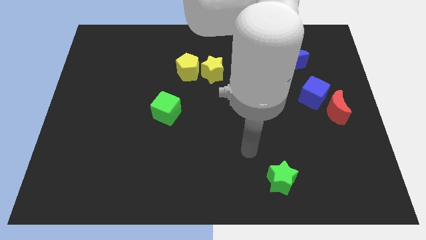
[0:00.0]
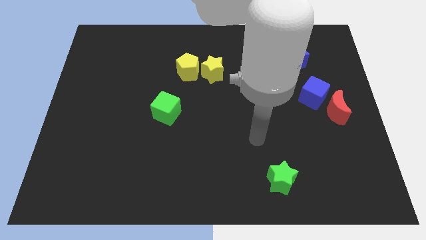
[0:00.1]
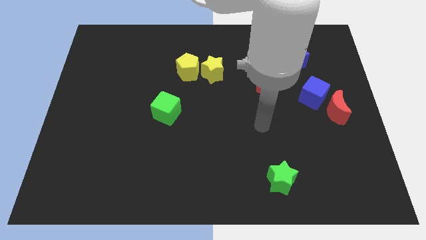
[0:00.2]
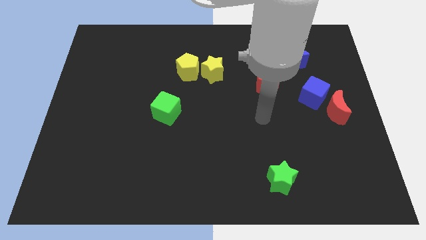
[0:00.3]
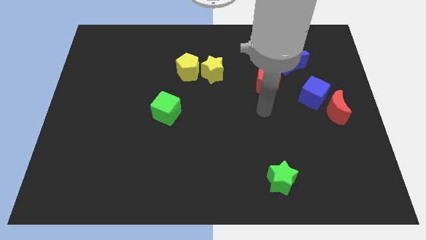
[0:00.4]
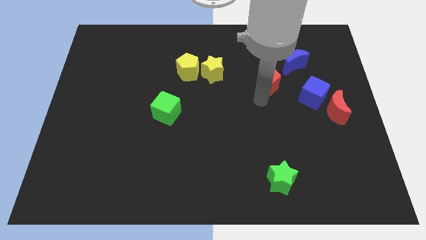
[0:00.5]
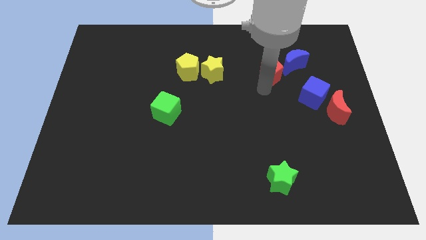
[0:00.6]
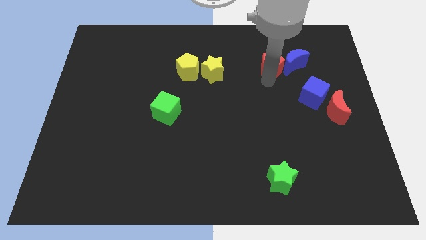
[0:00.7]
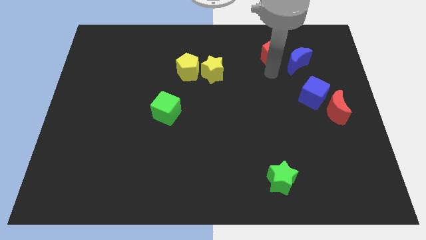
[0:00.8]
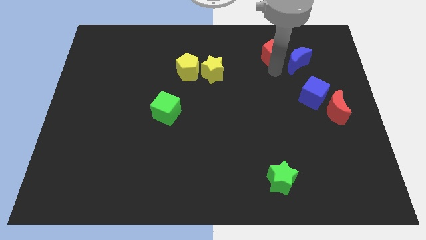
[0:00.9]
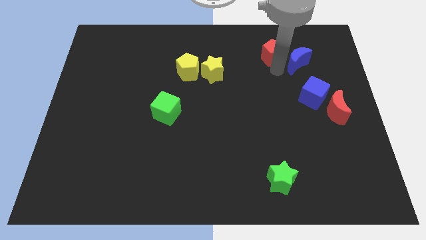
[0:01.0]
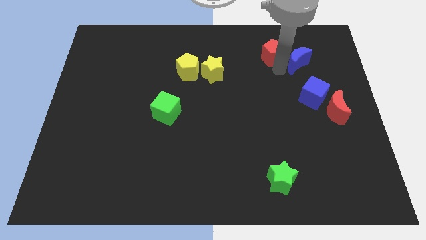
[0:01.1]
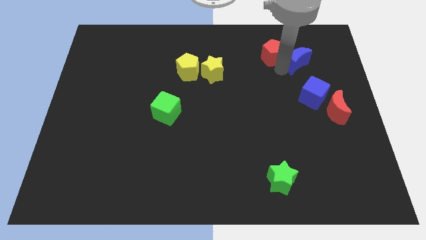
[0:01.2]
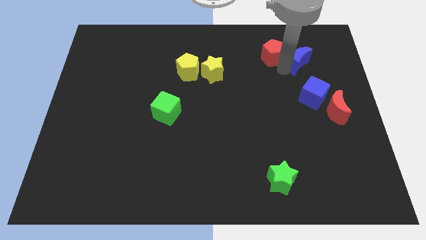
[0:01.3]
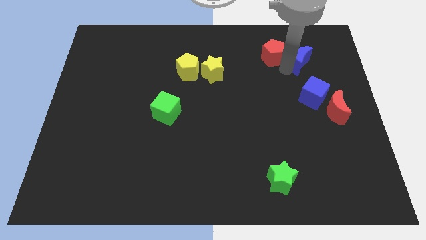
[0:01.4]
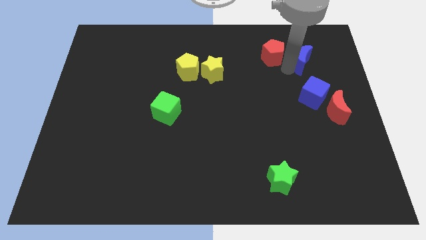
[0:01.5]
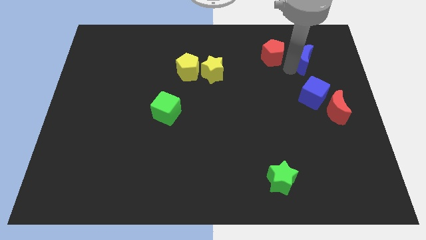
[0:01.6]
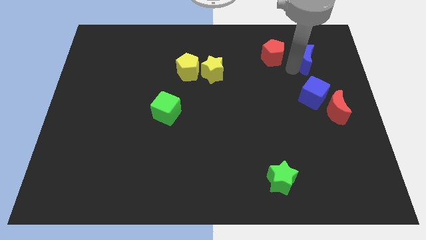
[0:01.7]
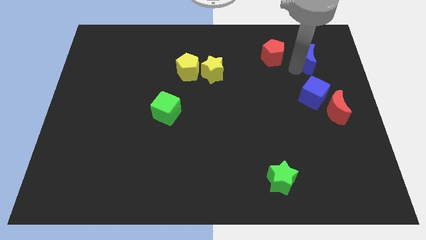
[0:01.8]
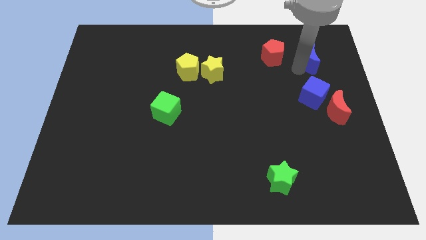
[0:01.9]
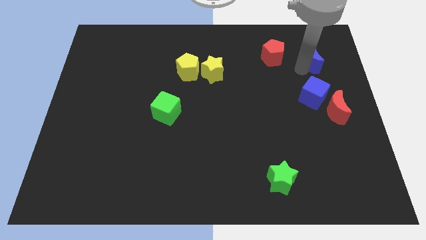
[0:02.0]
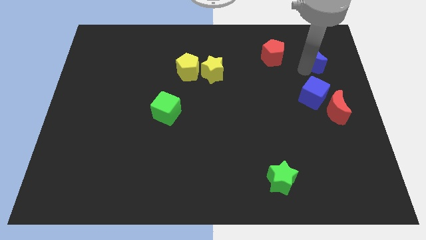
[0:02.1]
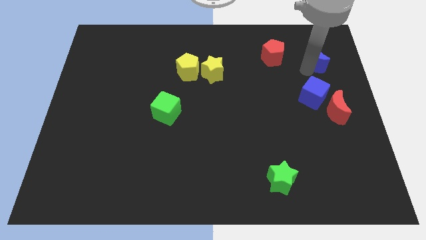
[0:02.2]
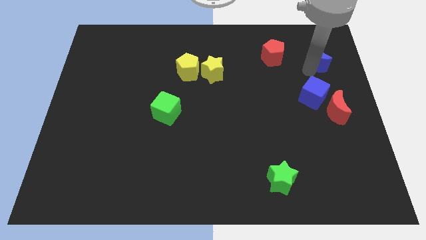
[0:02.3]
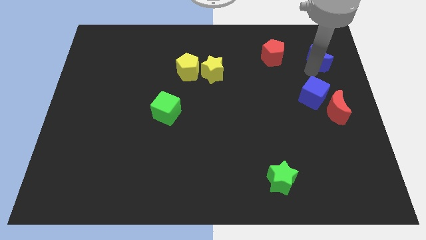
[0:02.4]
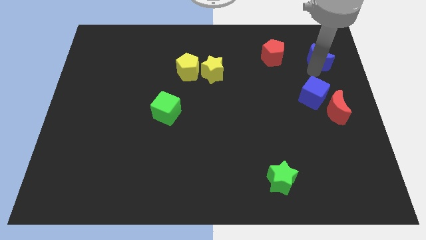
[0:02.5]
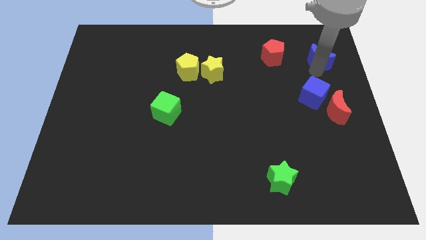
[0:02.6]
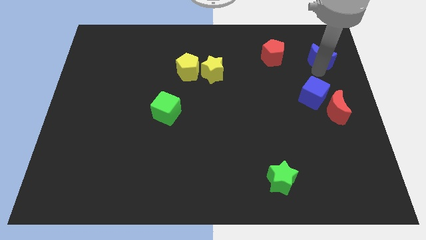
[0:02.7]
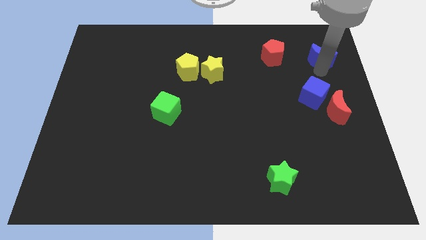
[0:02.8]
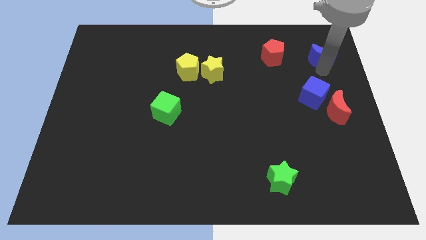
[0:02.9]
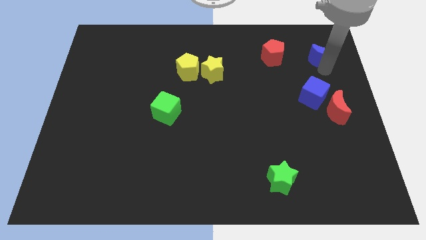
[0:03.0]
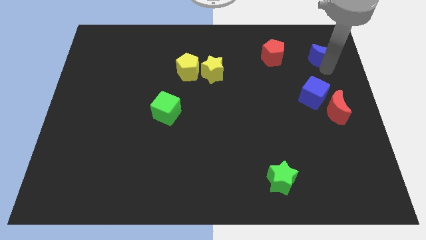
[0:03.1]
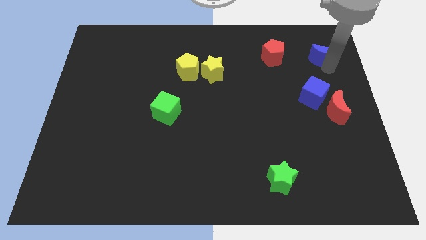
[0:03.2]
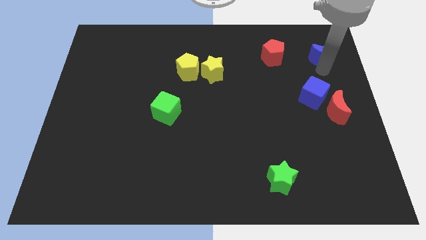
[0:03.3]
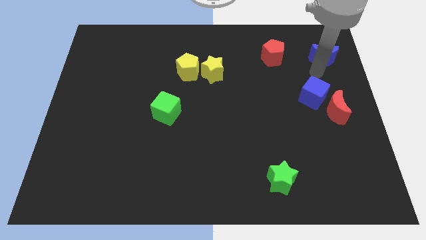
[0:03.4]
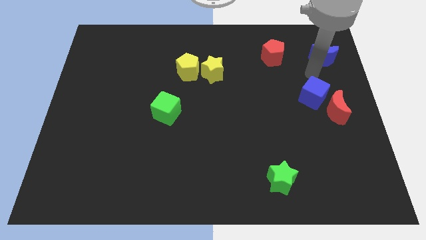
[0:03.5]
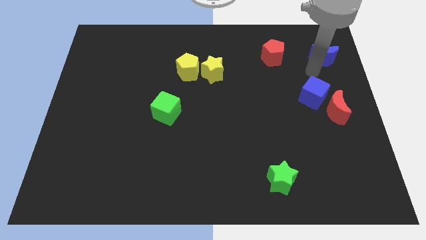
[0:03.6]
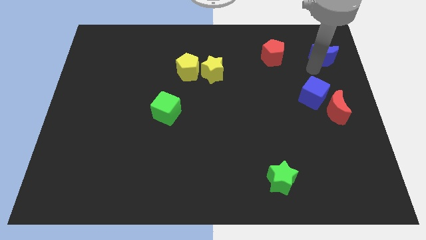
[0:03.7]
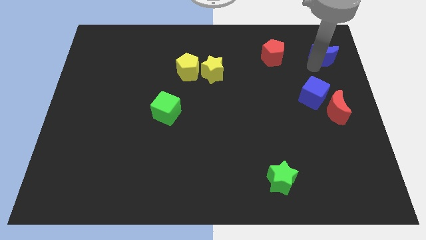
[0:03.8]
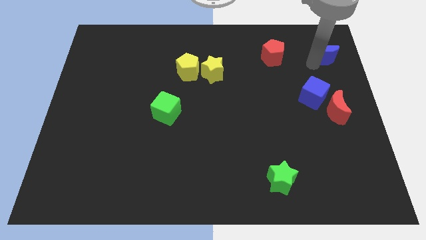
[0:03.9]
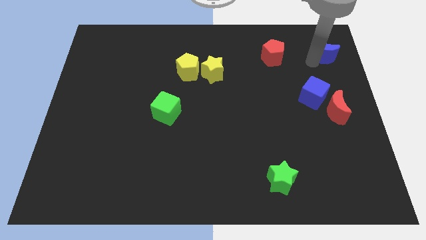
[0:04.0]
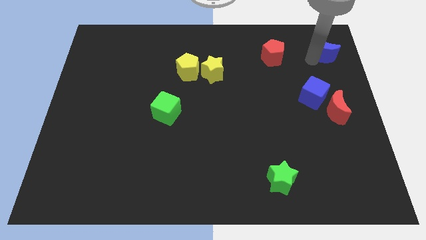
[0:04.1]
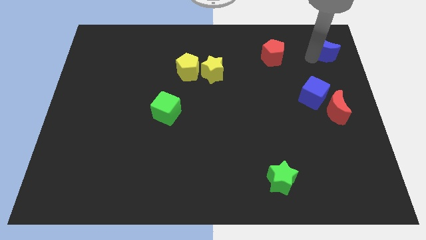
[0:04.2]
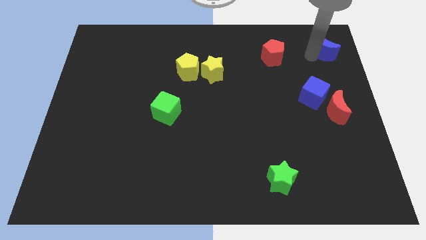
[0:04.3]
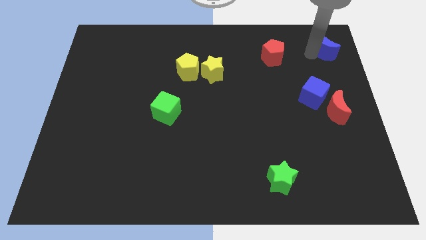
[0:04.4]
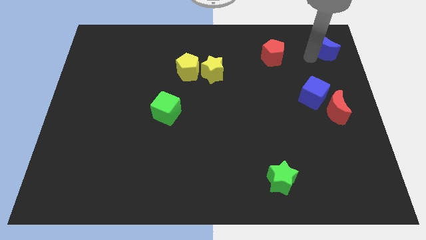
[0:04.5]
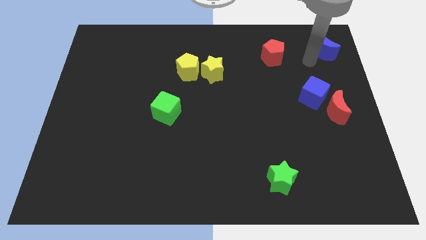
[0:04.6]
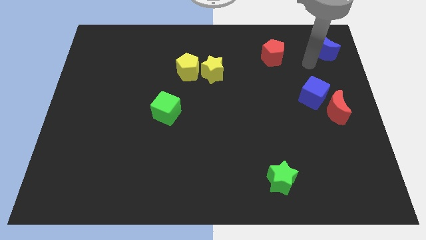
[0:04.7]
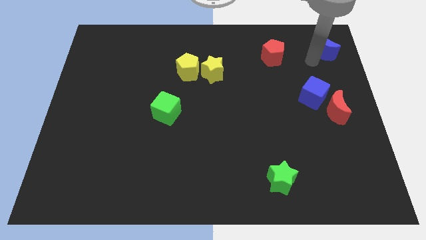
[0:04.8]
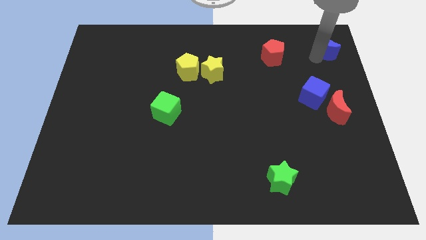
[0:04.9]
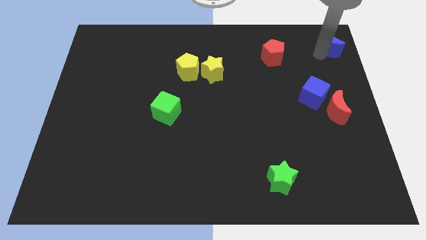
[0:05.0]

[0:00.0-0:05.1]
push the blue moon to the top right corner

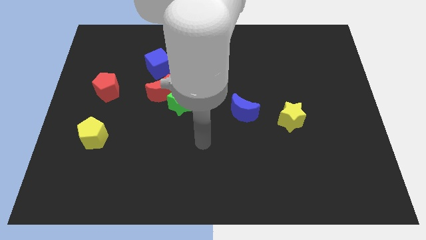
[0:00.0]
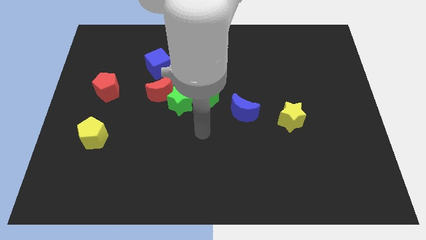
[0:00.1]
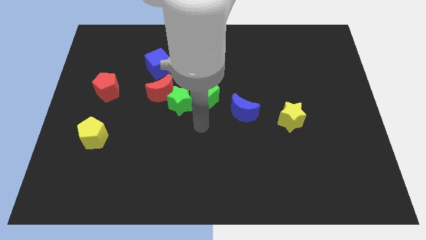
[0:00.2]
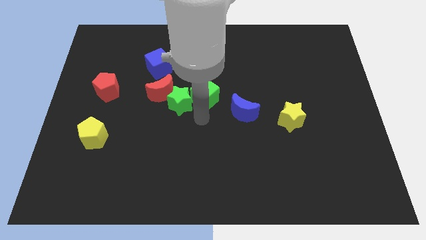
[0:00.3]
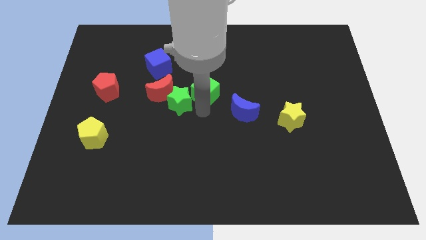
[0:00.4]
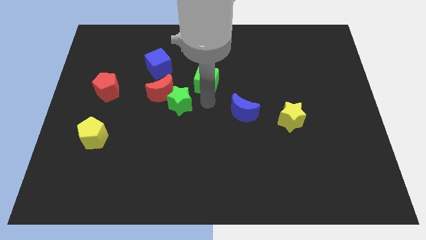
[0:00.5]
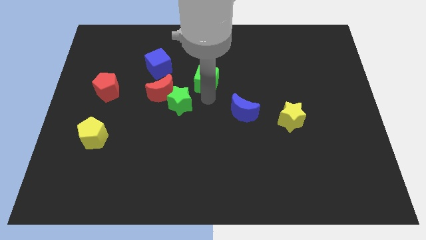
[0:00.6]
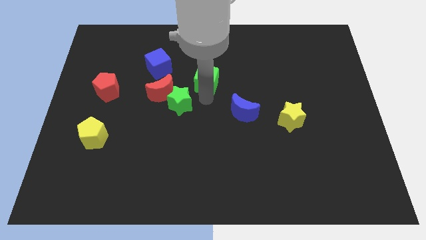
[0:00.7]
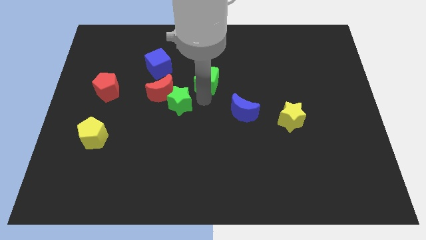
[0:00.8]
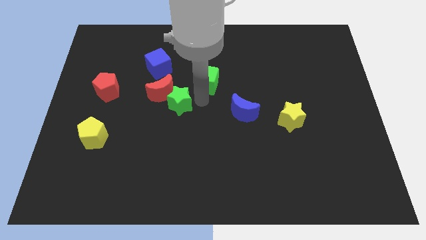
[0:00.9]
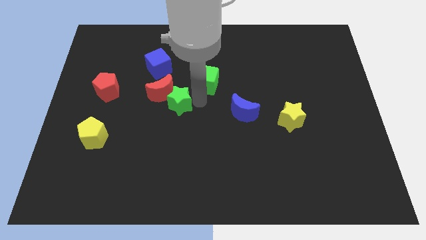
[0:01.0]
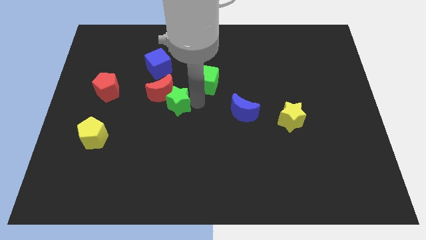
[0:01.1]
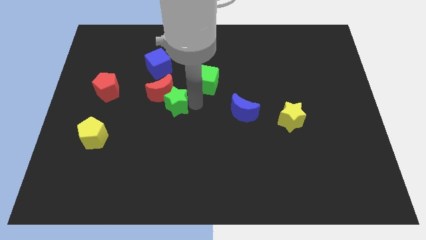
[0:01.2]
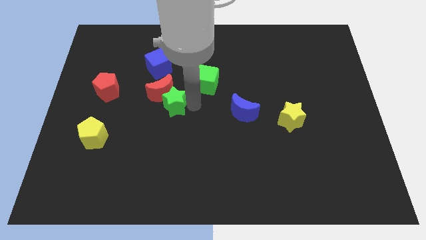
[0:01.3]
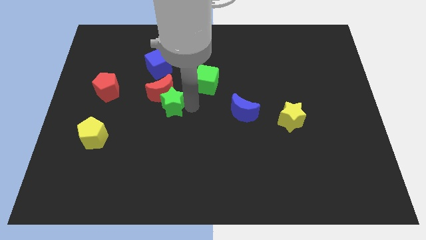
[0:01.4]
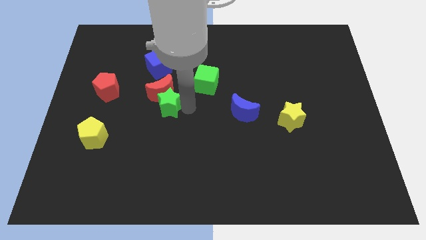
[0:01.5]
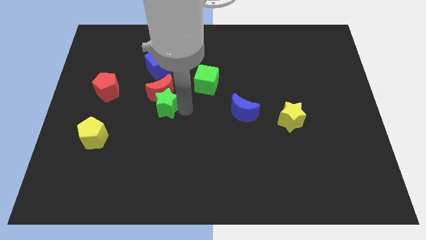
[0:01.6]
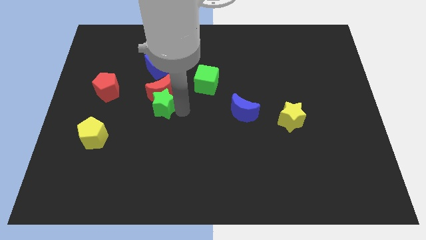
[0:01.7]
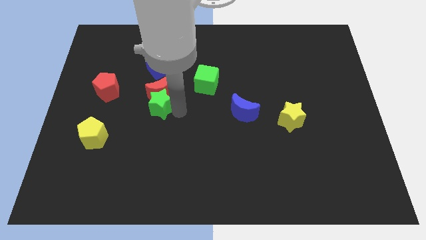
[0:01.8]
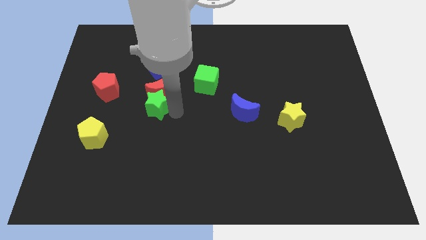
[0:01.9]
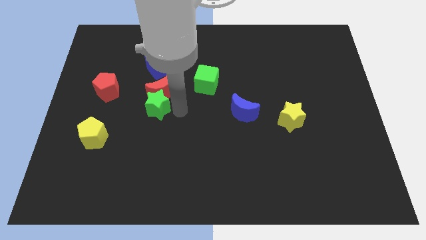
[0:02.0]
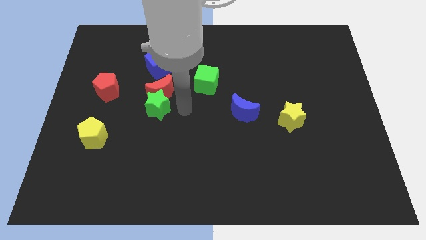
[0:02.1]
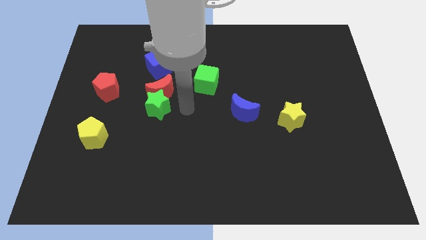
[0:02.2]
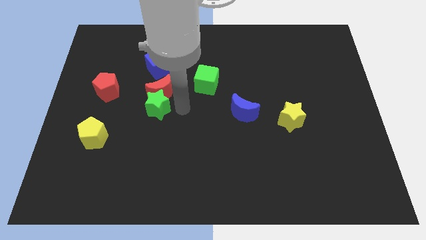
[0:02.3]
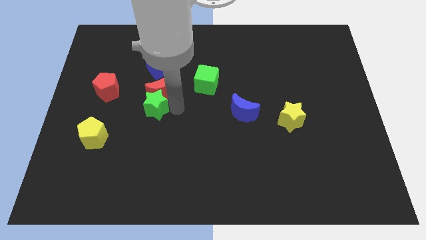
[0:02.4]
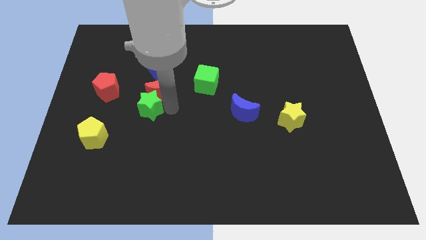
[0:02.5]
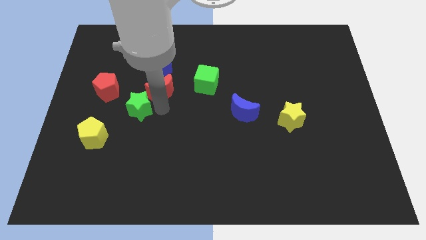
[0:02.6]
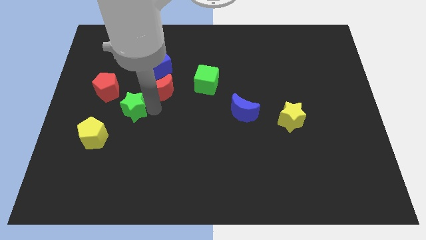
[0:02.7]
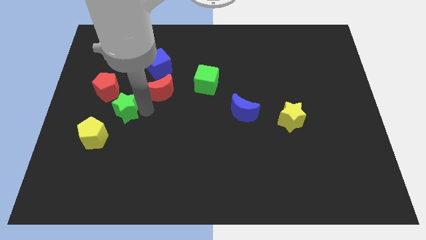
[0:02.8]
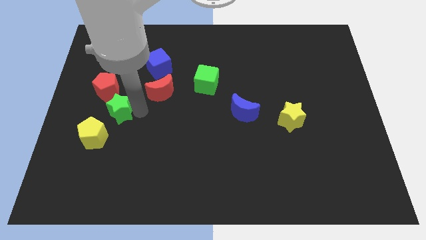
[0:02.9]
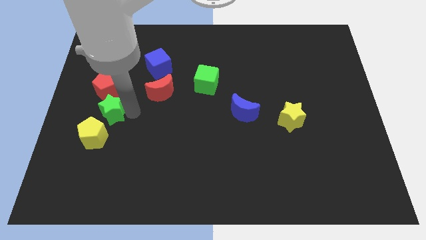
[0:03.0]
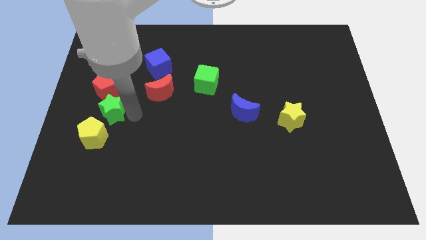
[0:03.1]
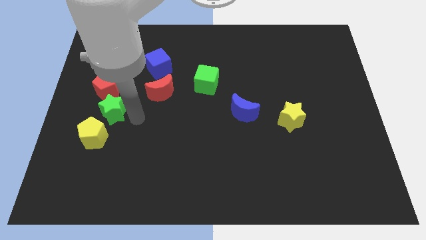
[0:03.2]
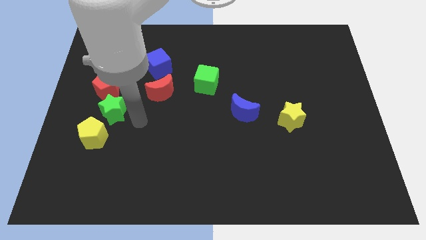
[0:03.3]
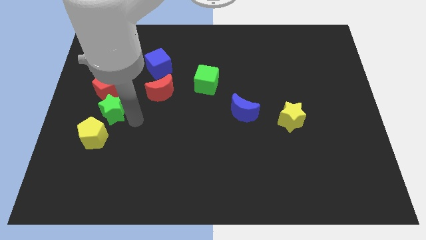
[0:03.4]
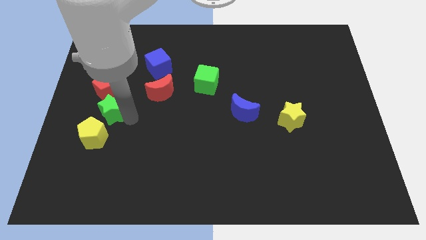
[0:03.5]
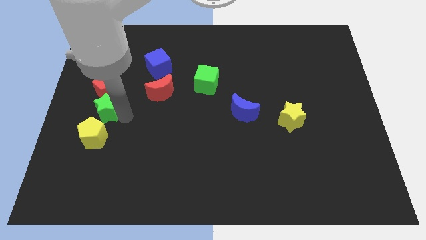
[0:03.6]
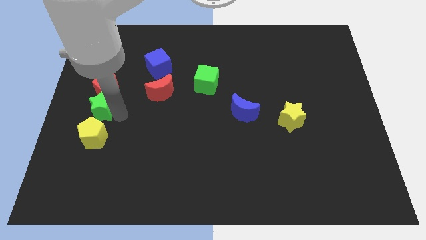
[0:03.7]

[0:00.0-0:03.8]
put the green star to the left side
